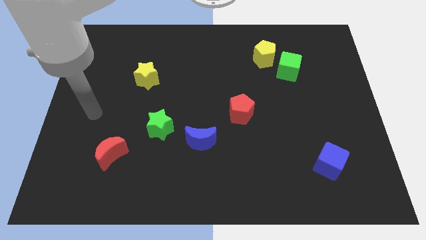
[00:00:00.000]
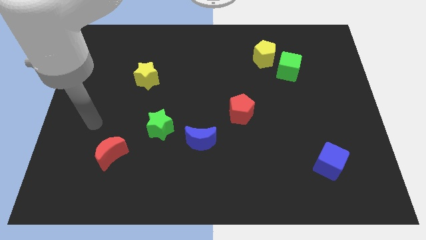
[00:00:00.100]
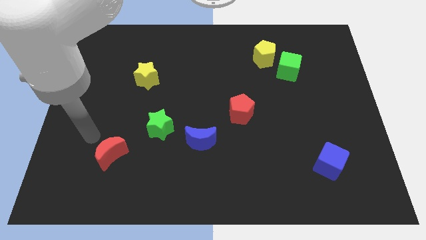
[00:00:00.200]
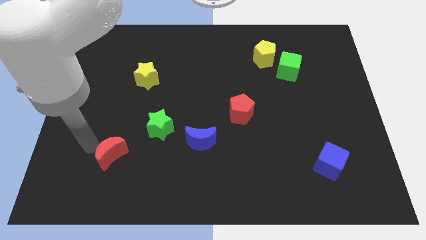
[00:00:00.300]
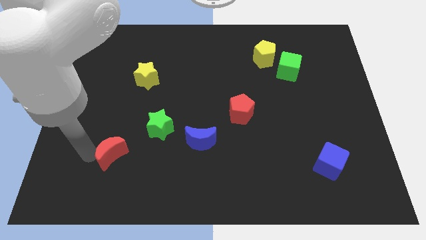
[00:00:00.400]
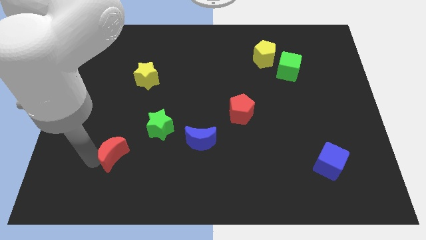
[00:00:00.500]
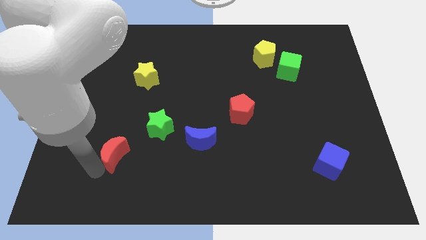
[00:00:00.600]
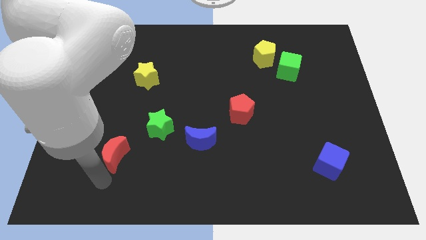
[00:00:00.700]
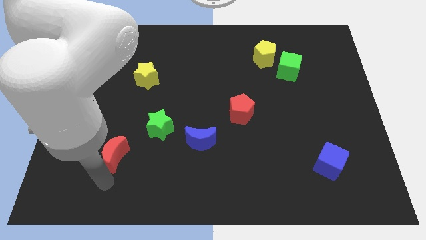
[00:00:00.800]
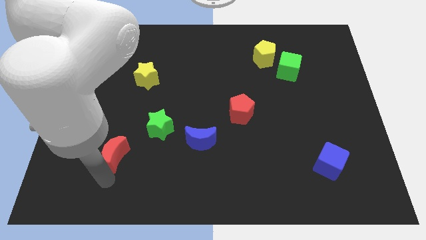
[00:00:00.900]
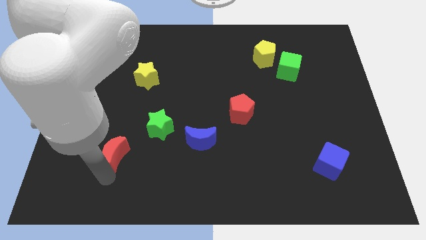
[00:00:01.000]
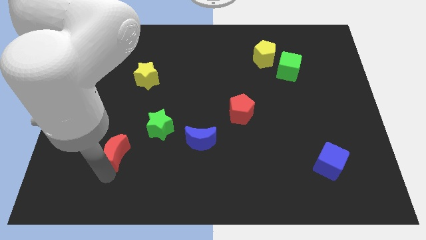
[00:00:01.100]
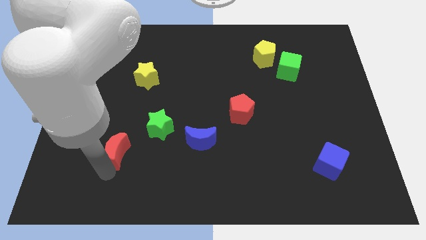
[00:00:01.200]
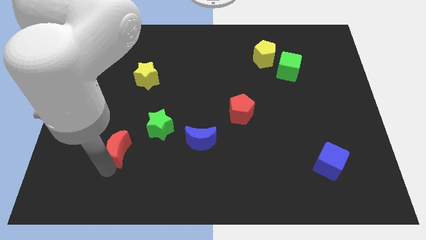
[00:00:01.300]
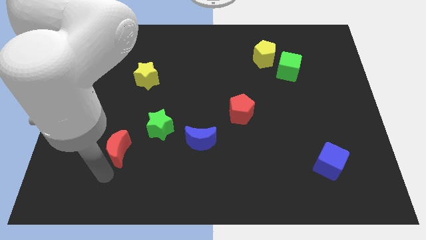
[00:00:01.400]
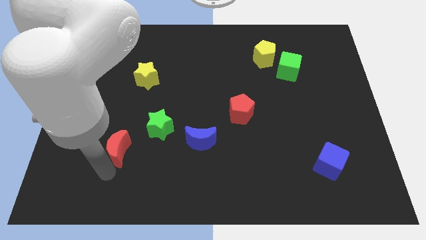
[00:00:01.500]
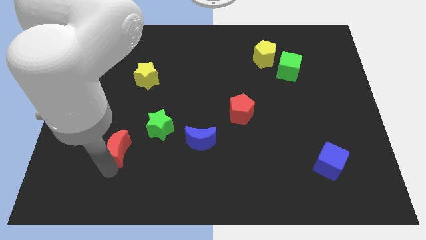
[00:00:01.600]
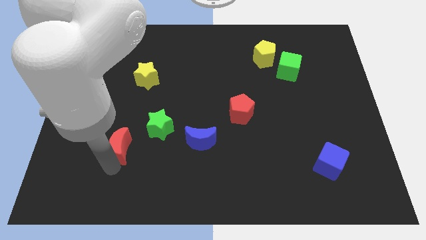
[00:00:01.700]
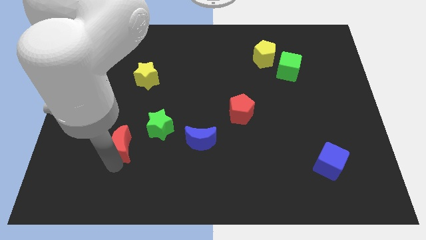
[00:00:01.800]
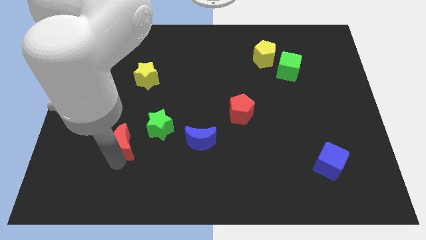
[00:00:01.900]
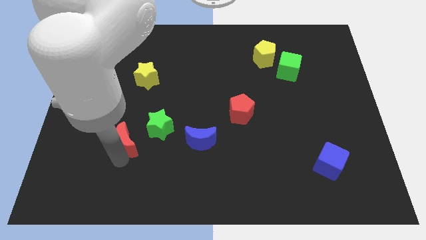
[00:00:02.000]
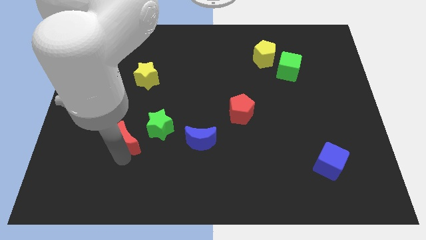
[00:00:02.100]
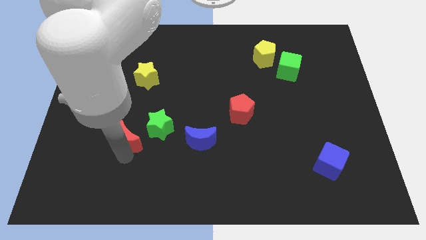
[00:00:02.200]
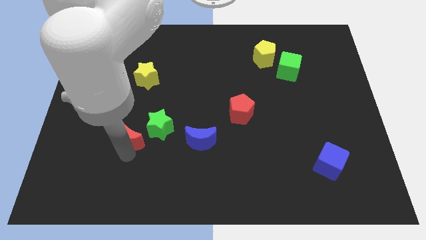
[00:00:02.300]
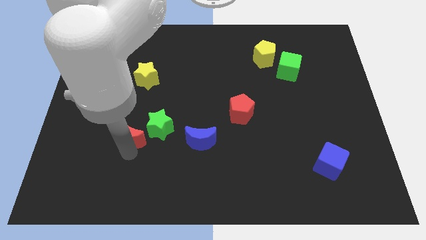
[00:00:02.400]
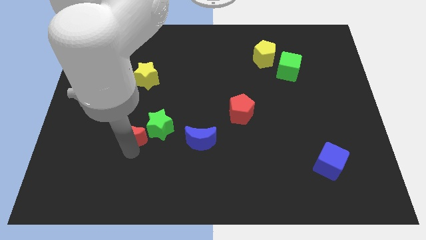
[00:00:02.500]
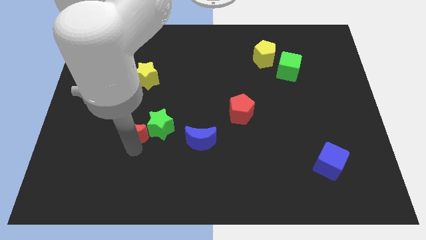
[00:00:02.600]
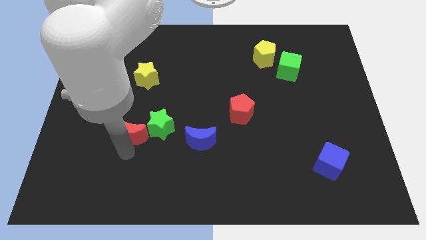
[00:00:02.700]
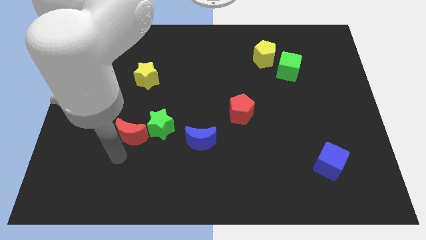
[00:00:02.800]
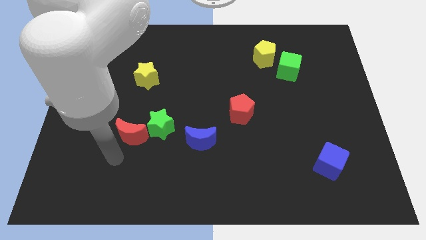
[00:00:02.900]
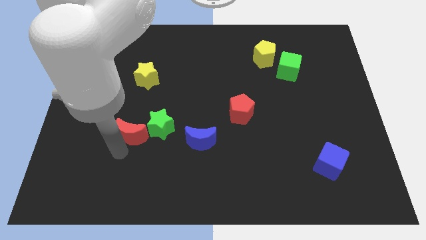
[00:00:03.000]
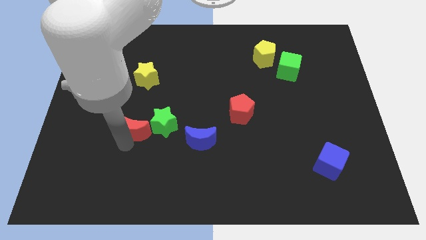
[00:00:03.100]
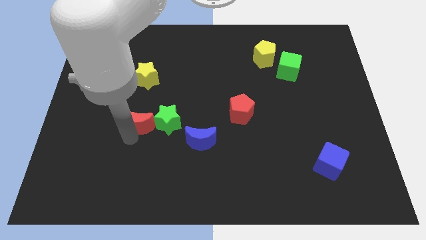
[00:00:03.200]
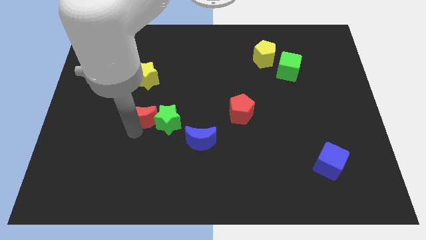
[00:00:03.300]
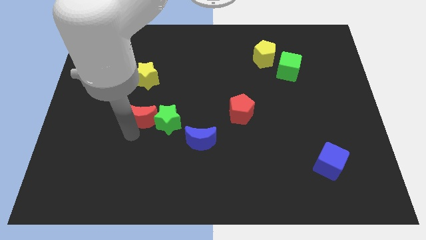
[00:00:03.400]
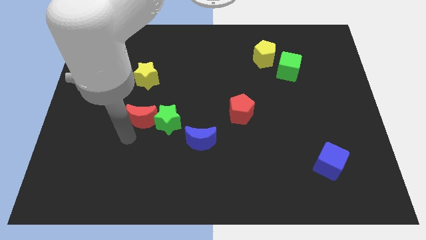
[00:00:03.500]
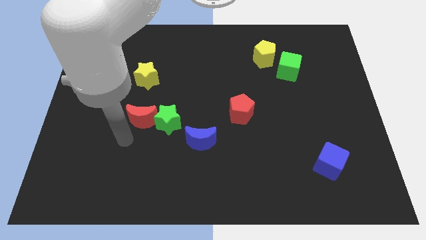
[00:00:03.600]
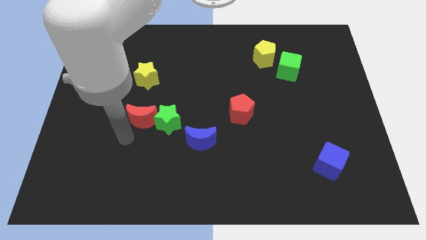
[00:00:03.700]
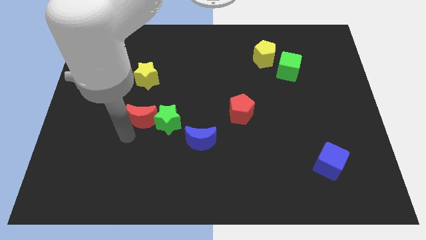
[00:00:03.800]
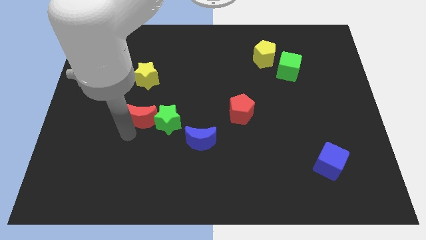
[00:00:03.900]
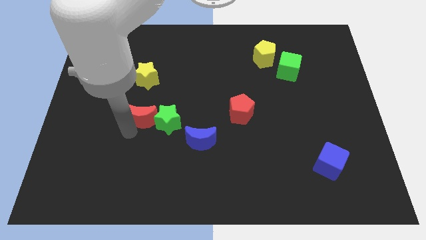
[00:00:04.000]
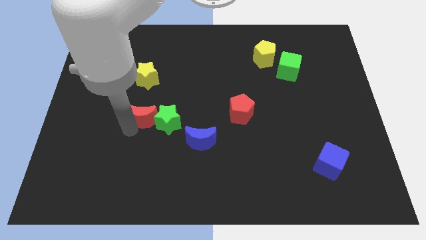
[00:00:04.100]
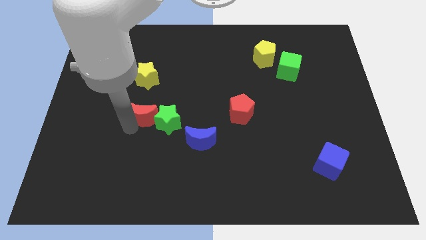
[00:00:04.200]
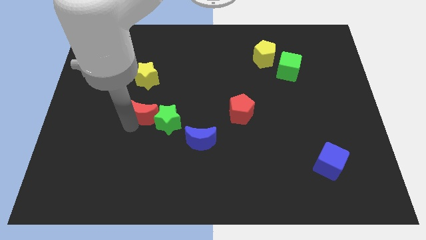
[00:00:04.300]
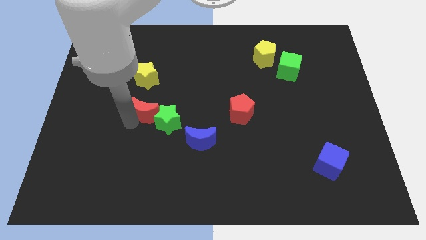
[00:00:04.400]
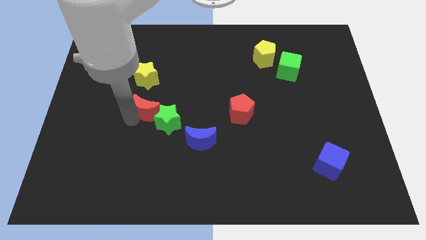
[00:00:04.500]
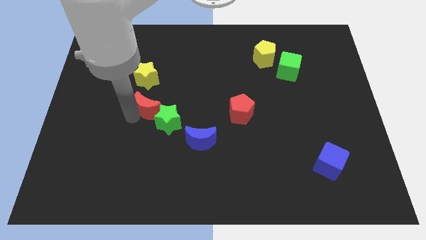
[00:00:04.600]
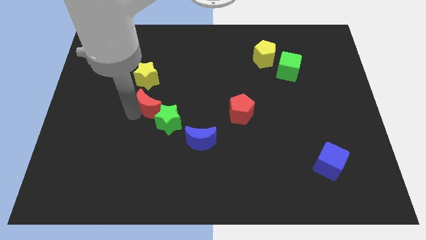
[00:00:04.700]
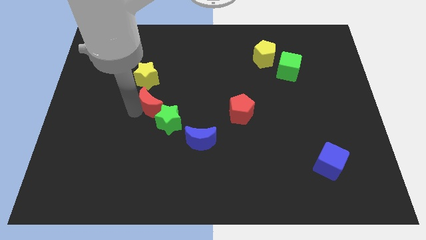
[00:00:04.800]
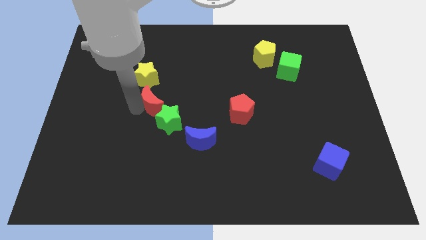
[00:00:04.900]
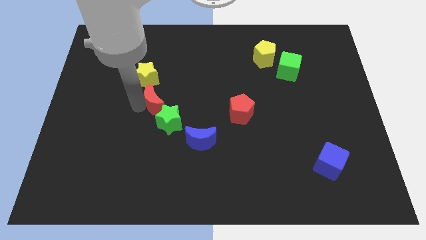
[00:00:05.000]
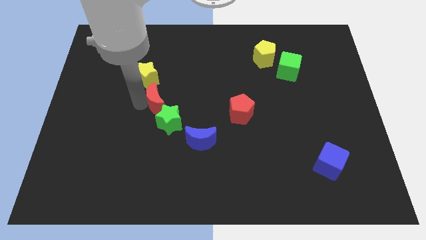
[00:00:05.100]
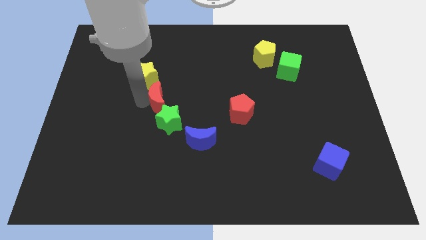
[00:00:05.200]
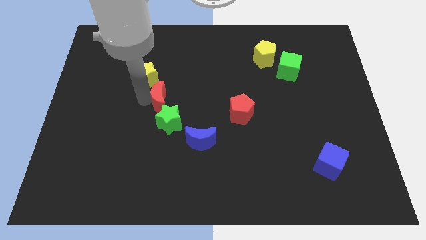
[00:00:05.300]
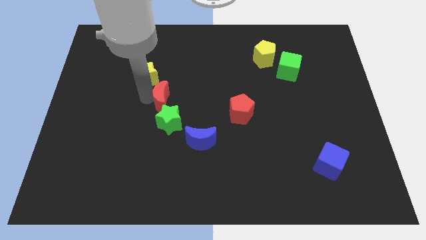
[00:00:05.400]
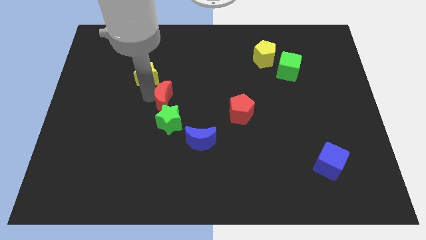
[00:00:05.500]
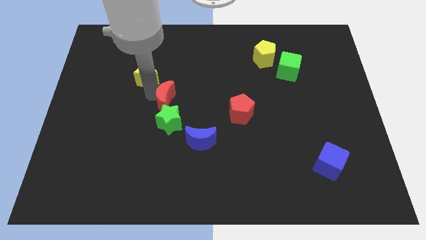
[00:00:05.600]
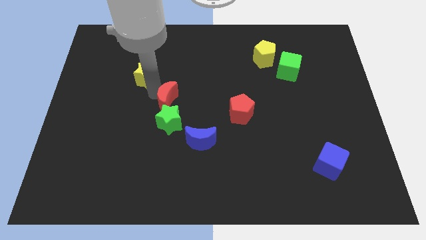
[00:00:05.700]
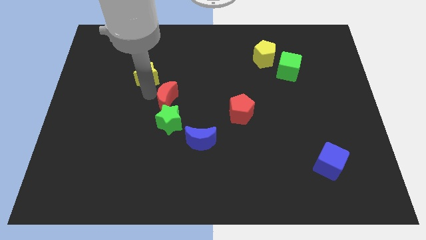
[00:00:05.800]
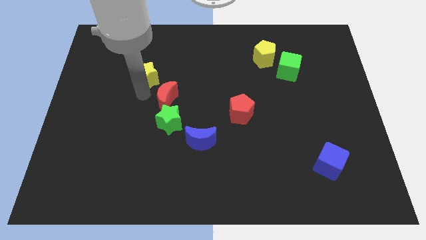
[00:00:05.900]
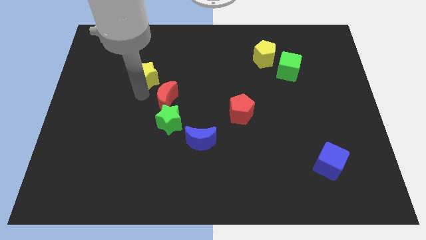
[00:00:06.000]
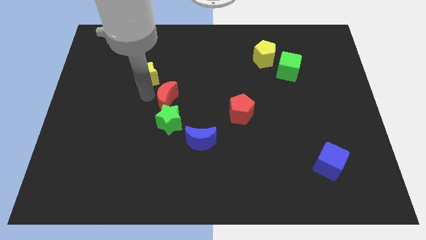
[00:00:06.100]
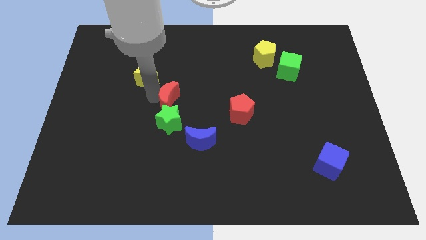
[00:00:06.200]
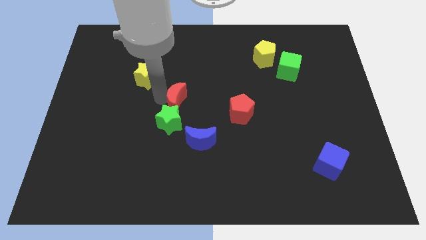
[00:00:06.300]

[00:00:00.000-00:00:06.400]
slide the red moon to the top right of the green star

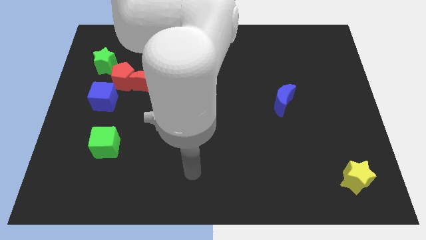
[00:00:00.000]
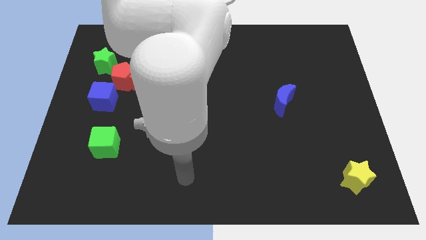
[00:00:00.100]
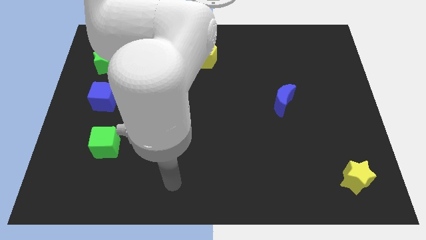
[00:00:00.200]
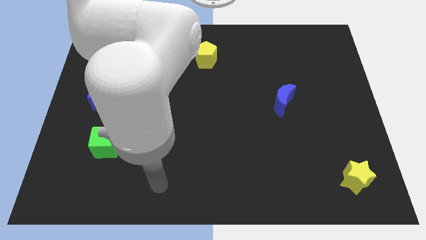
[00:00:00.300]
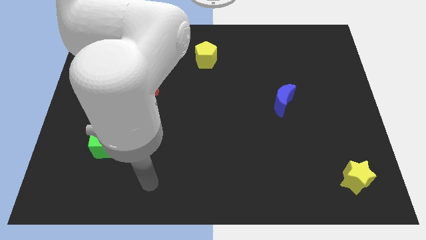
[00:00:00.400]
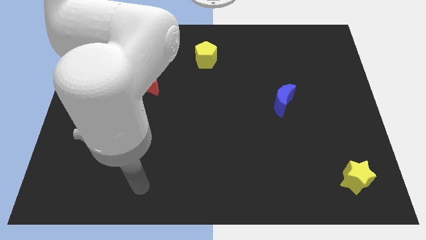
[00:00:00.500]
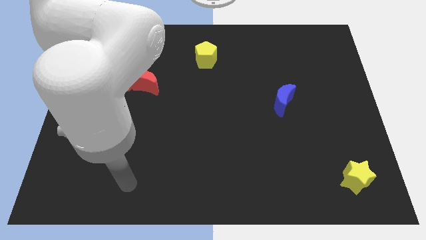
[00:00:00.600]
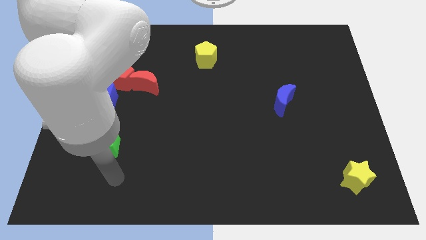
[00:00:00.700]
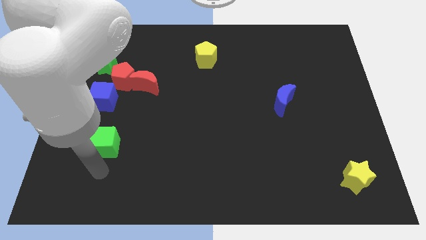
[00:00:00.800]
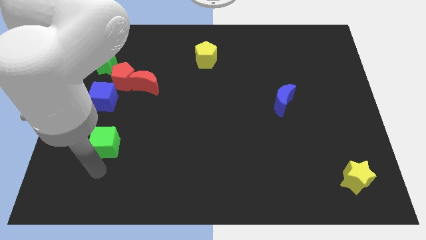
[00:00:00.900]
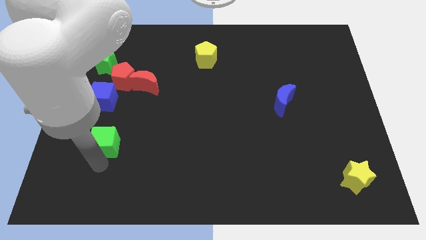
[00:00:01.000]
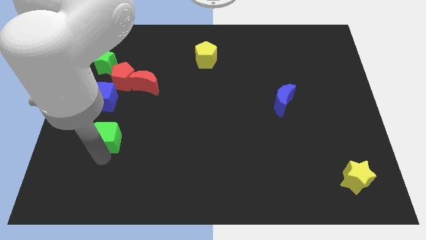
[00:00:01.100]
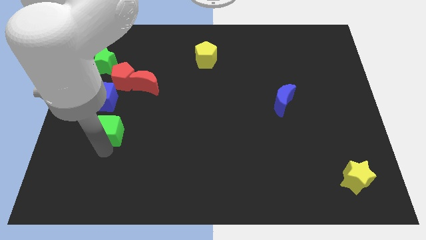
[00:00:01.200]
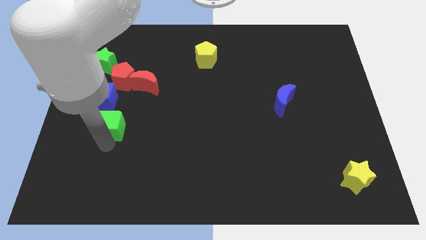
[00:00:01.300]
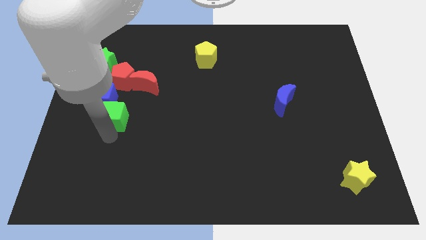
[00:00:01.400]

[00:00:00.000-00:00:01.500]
push the green cube to the bottom left side of the red moon
